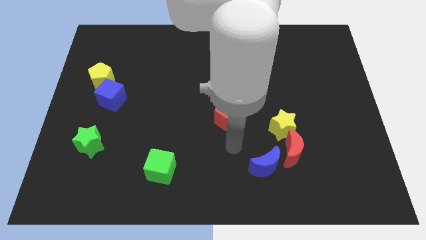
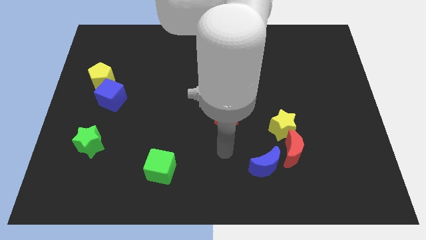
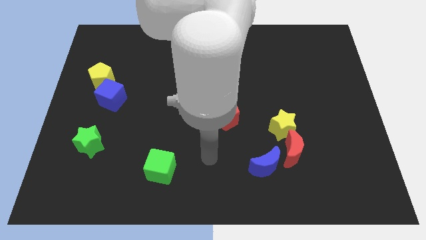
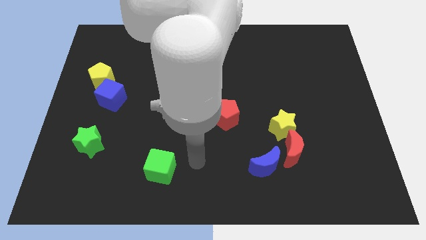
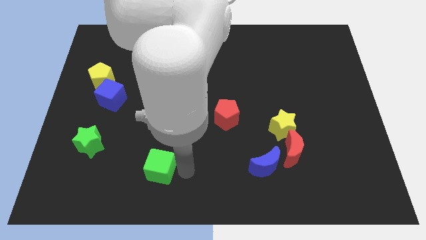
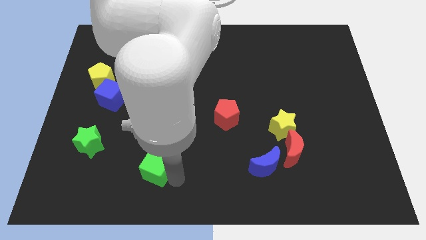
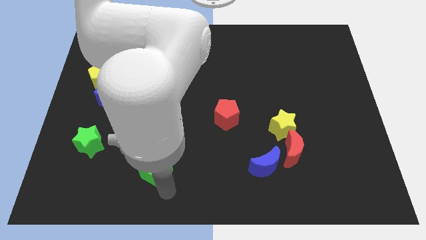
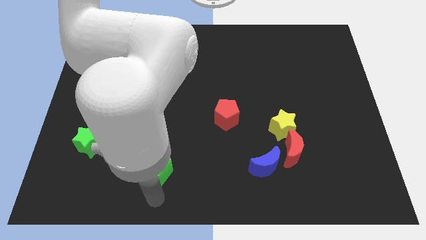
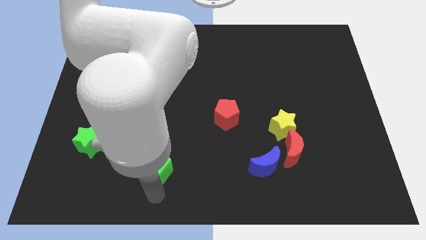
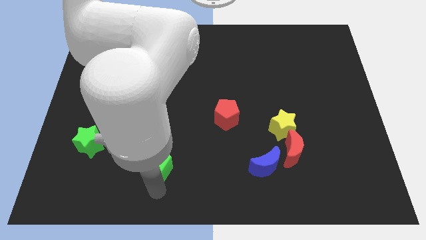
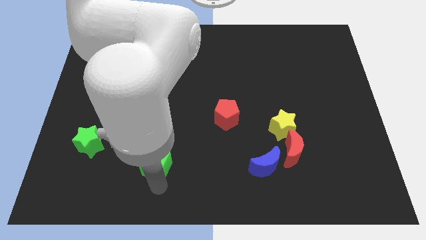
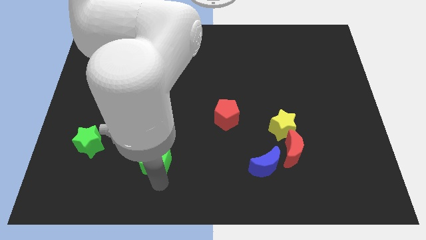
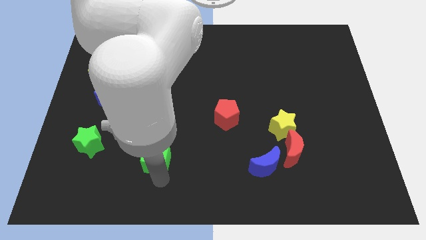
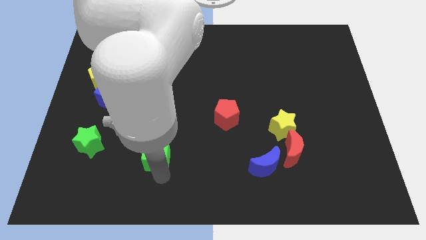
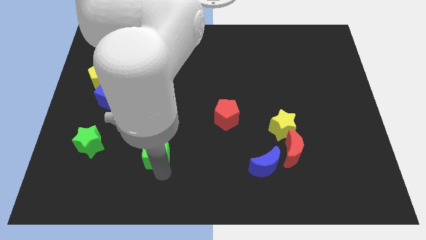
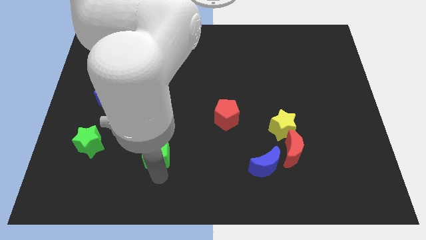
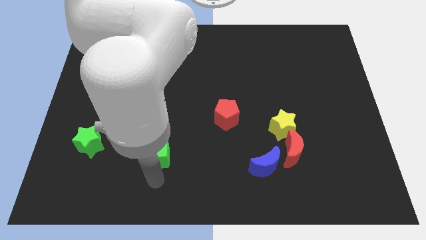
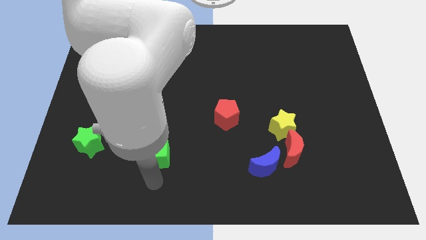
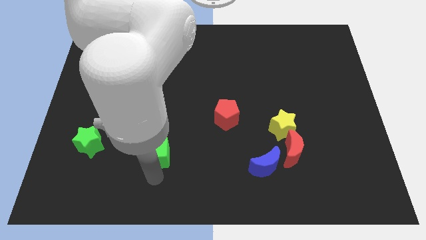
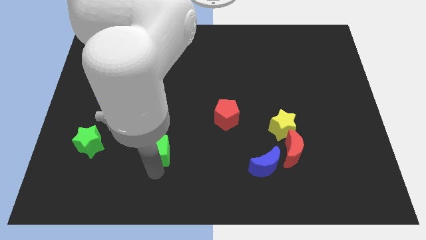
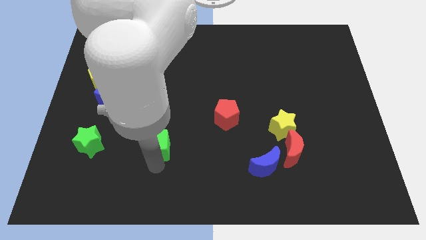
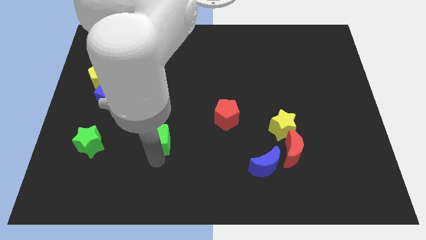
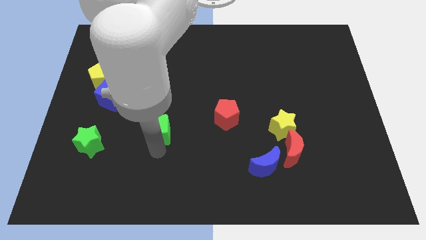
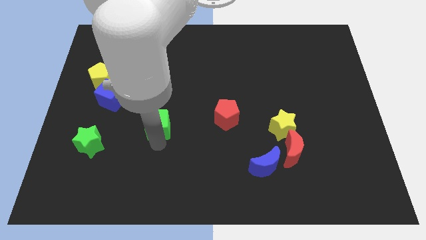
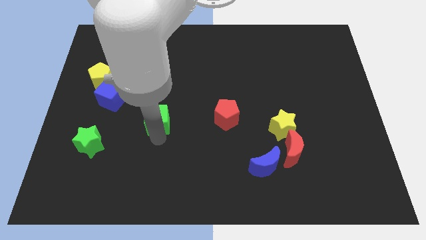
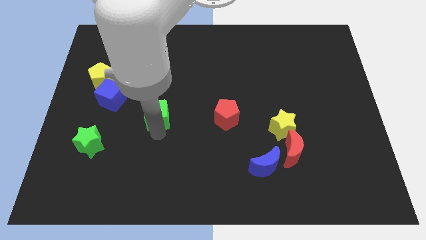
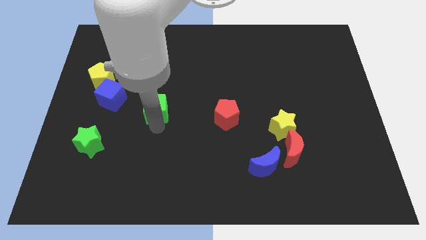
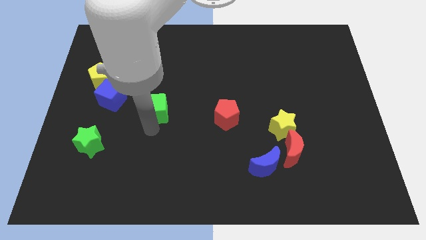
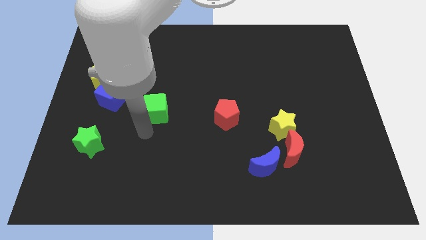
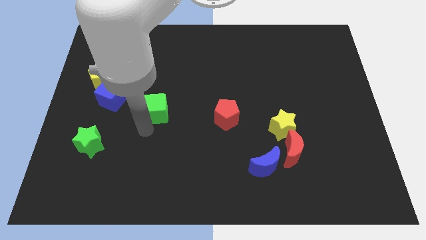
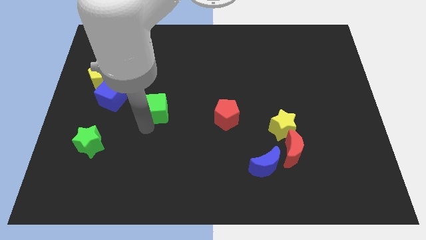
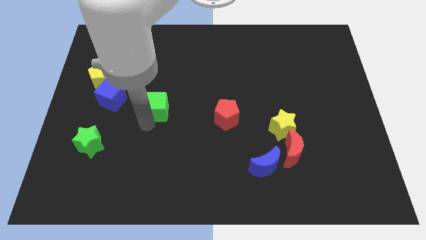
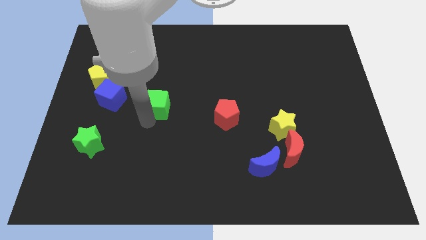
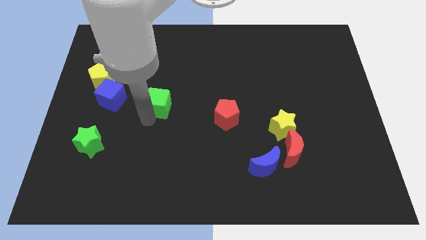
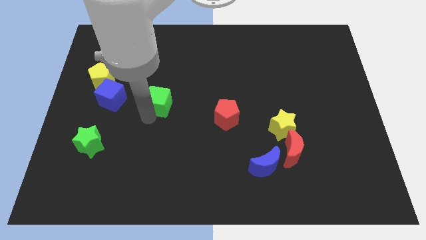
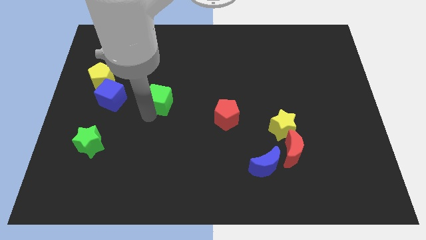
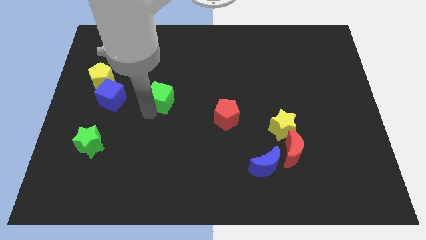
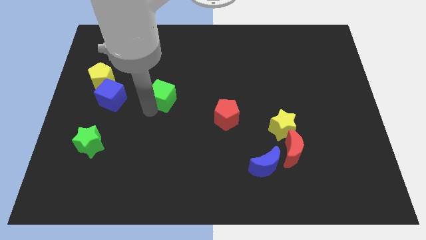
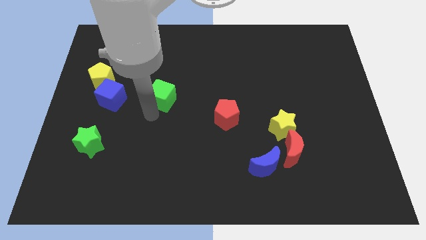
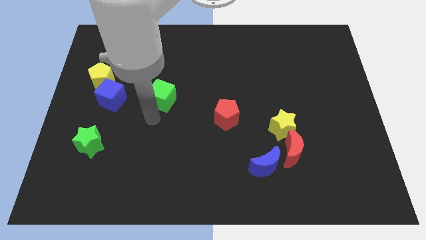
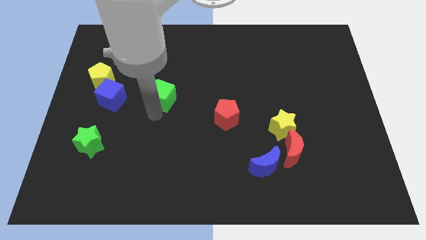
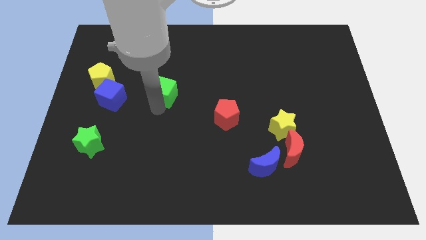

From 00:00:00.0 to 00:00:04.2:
slide the green cube upwards

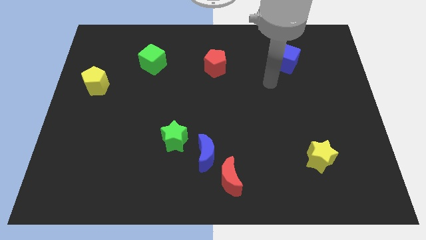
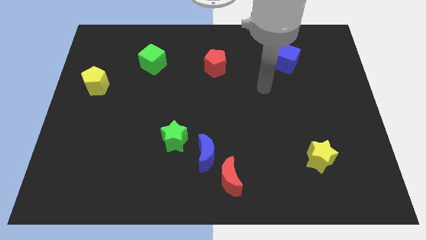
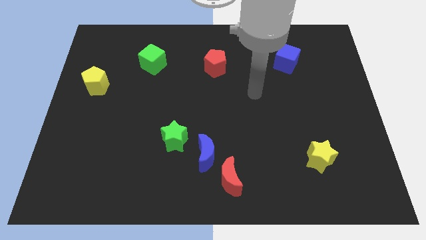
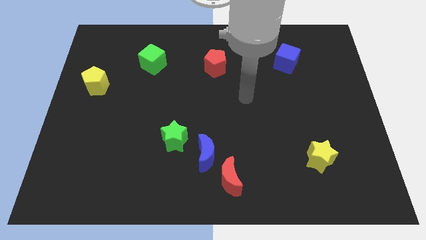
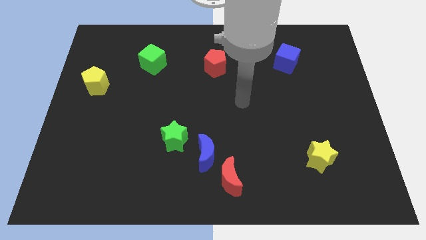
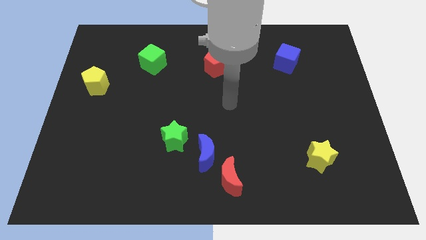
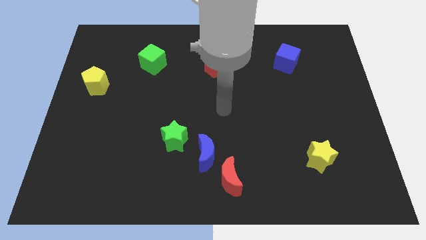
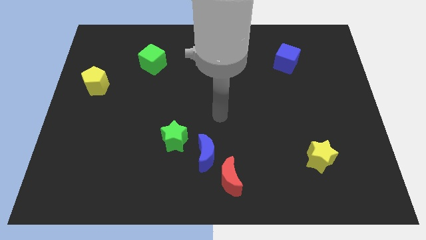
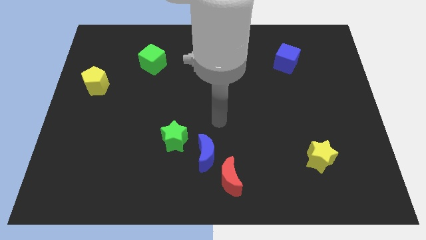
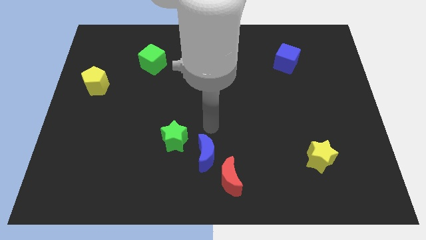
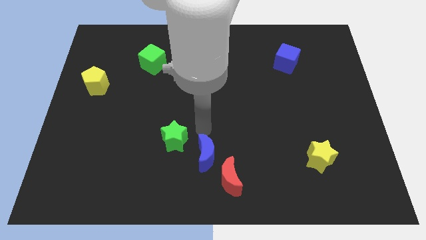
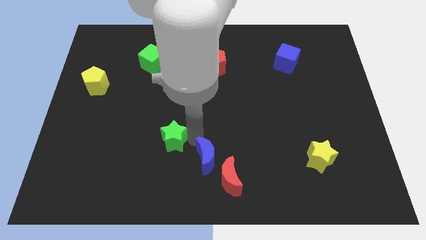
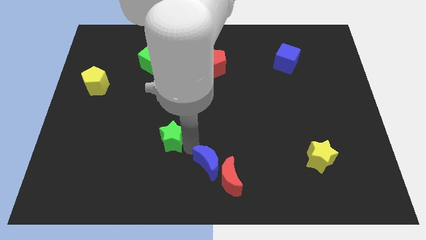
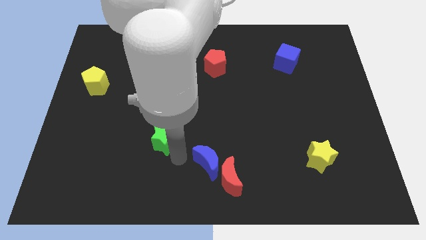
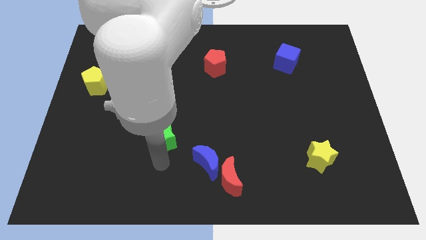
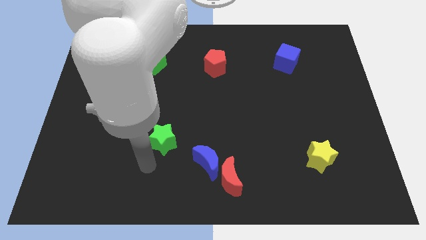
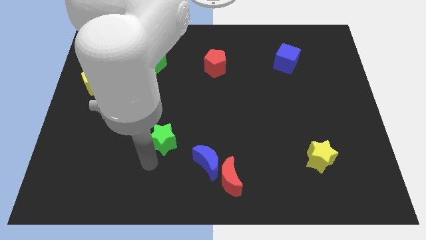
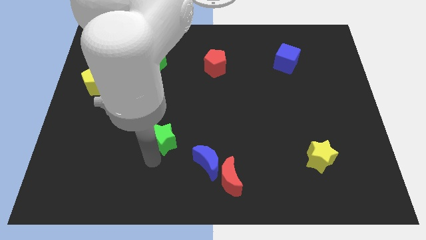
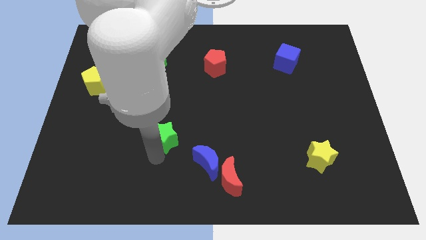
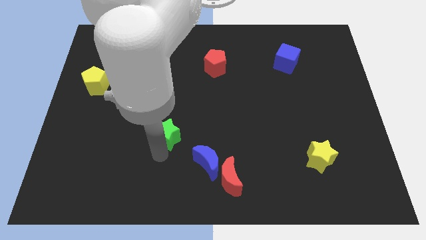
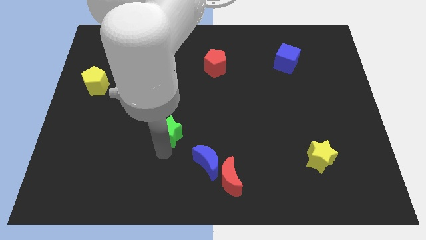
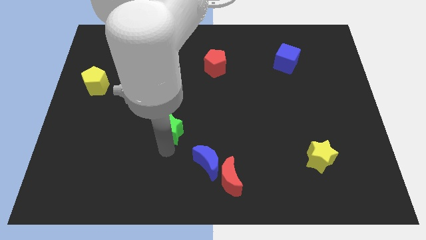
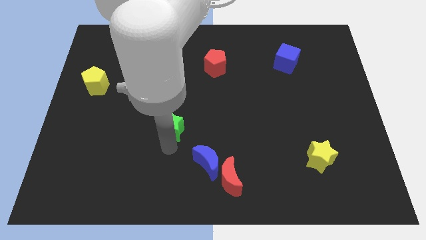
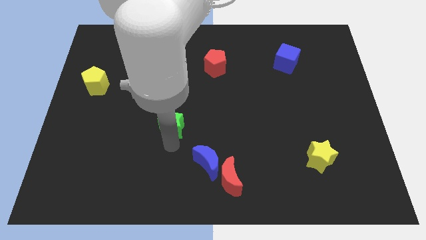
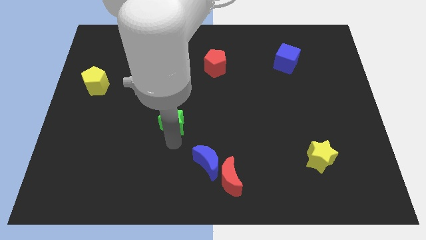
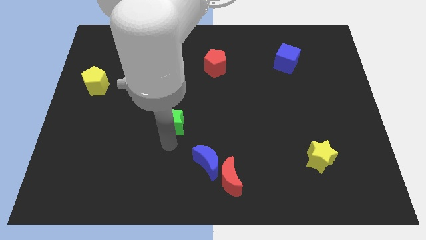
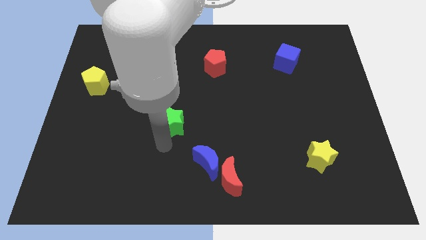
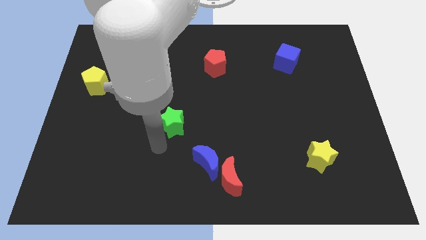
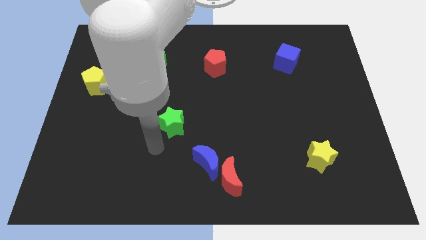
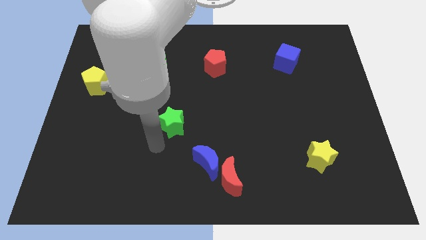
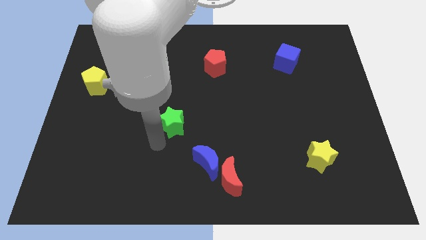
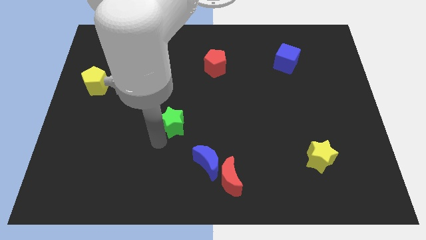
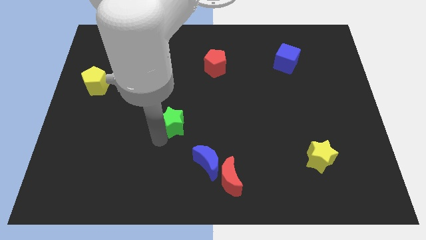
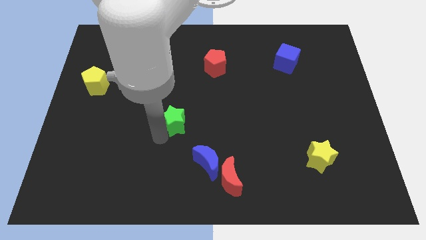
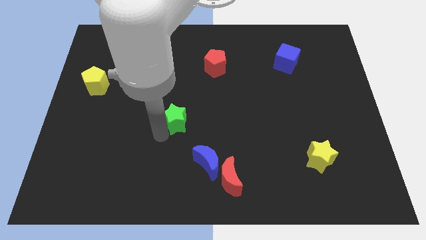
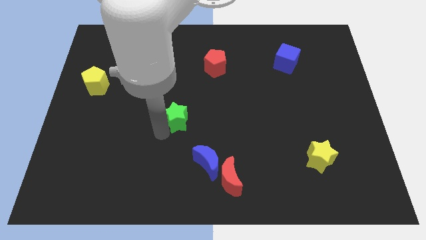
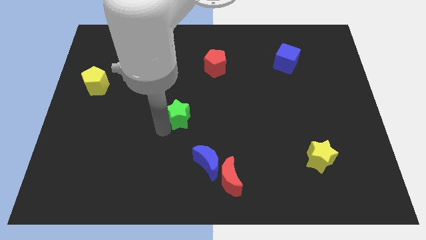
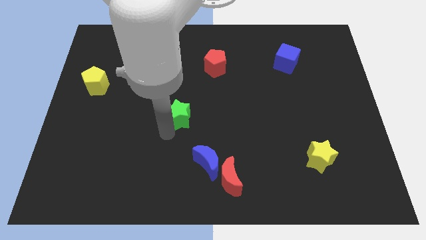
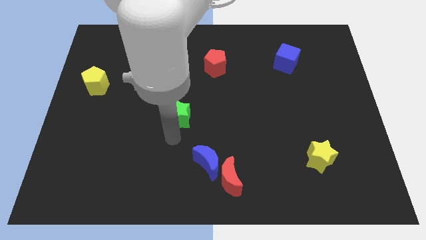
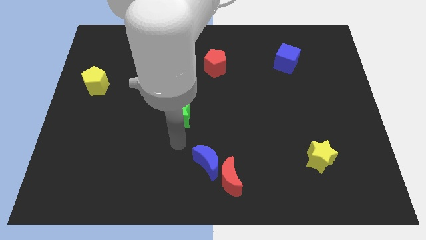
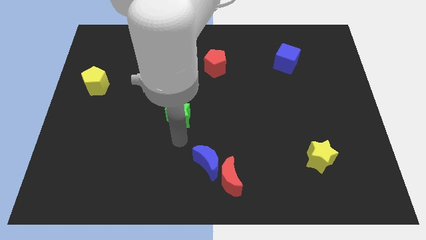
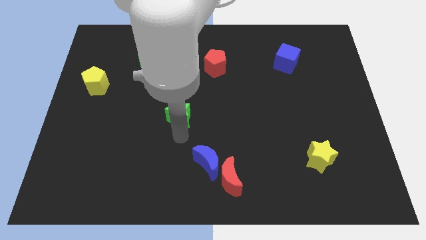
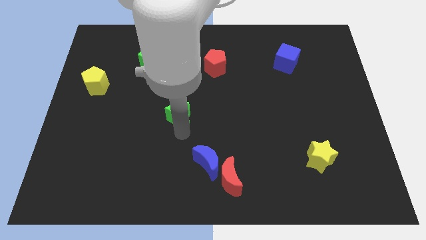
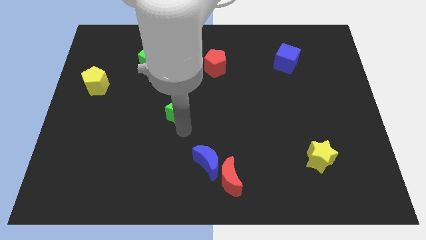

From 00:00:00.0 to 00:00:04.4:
slide the green star somewhat up
